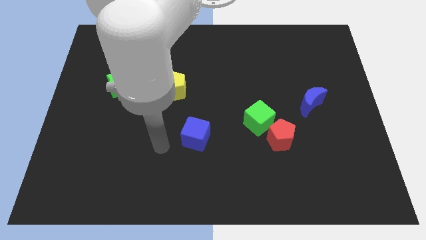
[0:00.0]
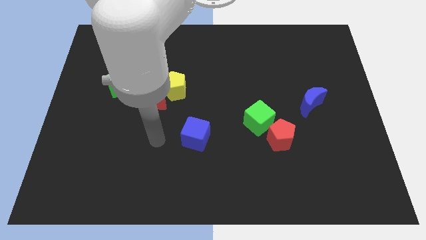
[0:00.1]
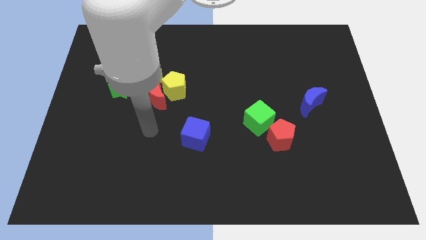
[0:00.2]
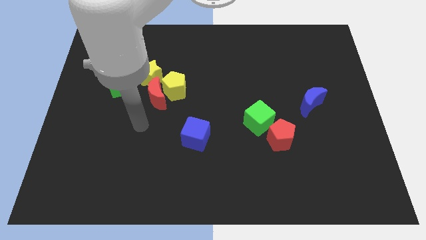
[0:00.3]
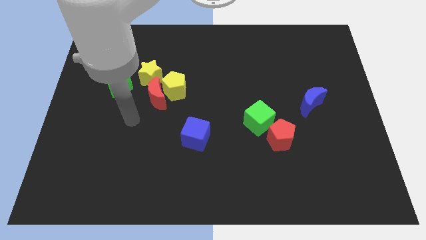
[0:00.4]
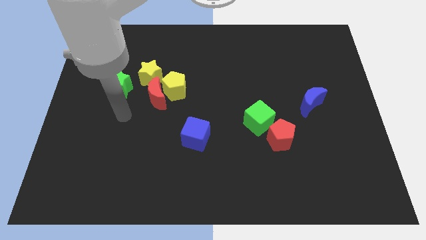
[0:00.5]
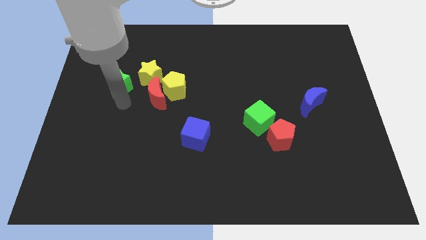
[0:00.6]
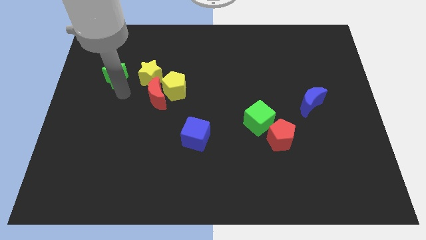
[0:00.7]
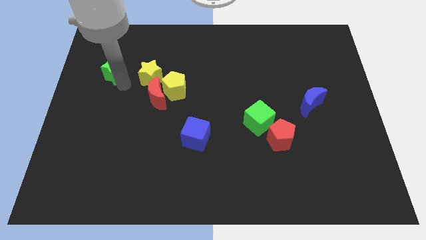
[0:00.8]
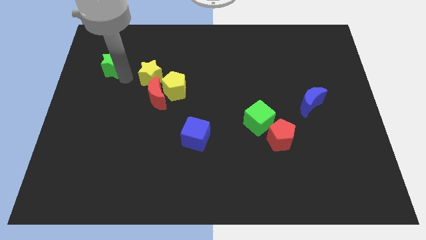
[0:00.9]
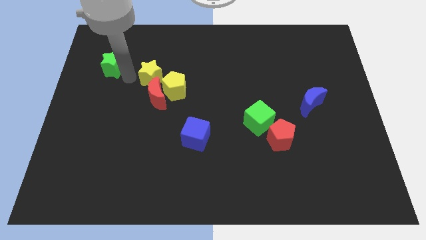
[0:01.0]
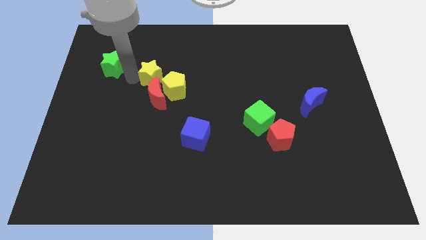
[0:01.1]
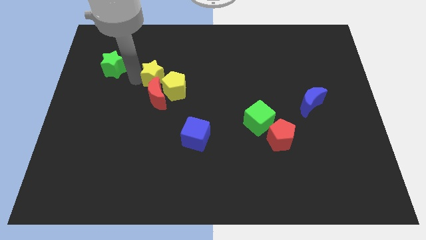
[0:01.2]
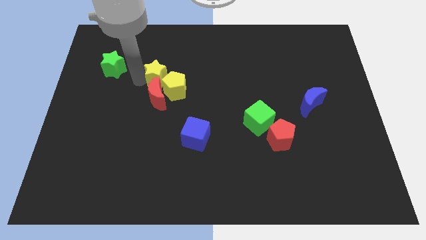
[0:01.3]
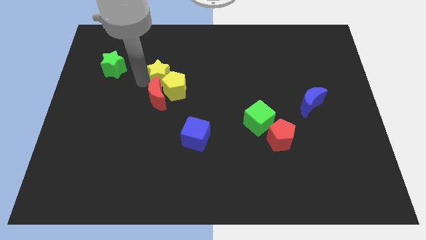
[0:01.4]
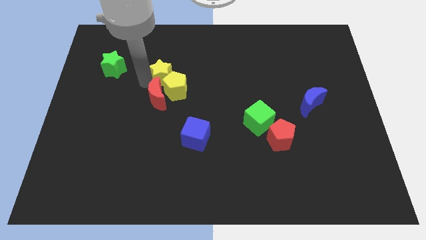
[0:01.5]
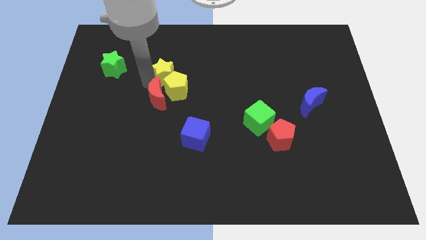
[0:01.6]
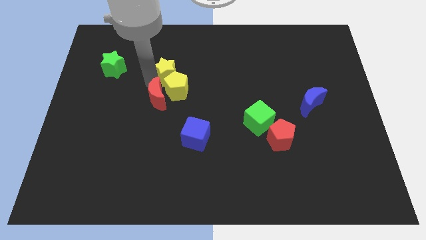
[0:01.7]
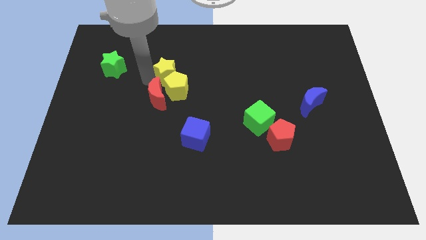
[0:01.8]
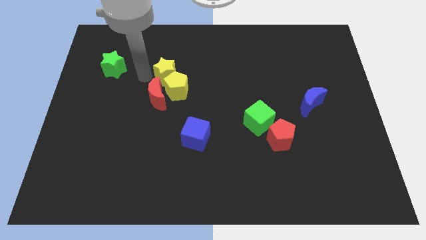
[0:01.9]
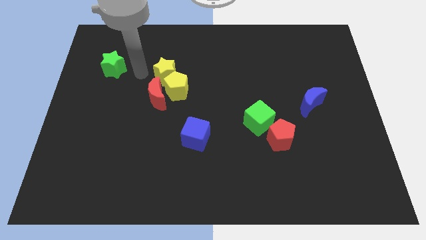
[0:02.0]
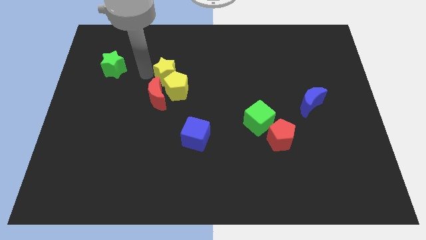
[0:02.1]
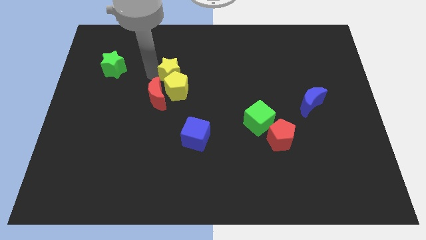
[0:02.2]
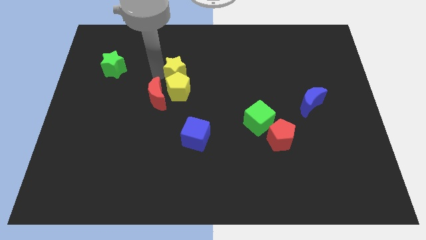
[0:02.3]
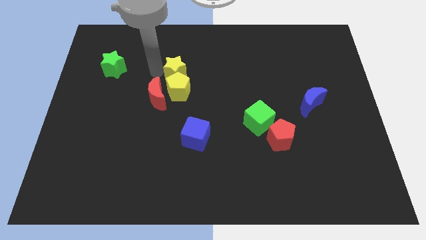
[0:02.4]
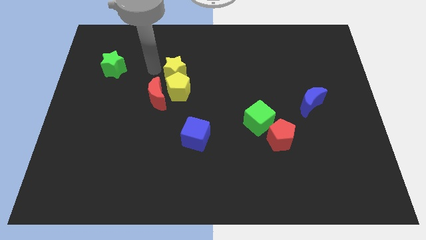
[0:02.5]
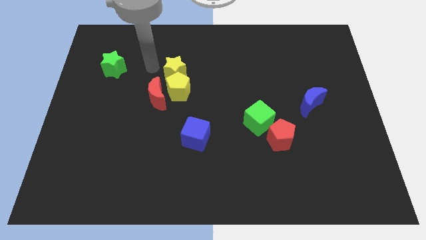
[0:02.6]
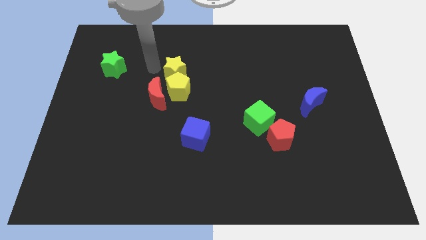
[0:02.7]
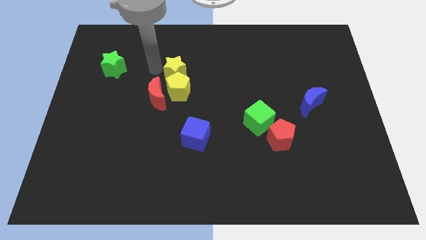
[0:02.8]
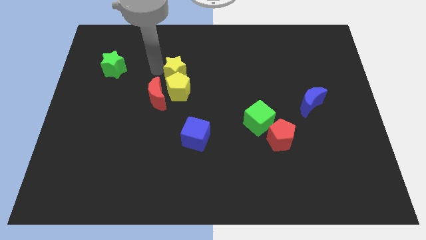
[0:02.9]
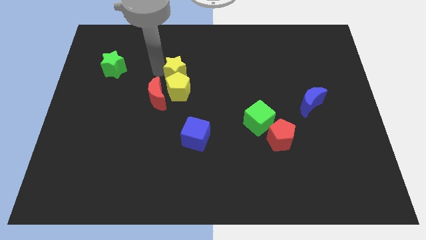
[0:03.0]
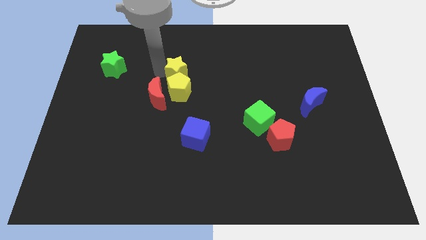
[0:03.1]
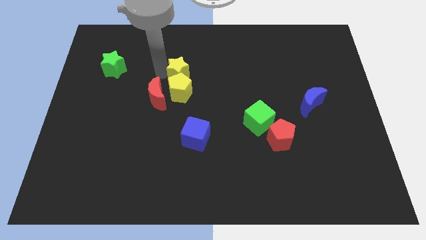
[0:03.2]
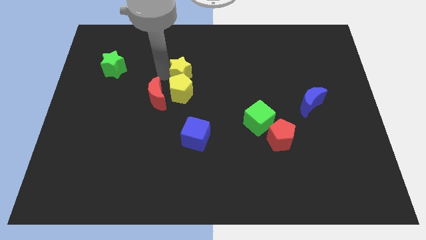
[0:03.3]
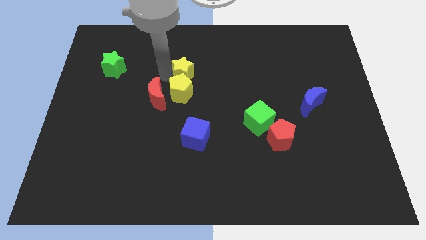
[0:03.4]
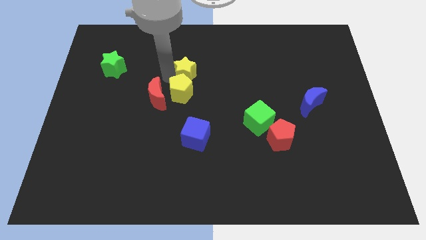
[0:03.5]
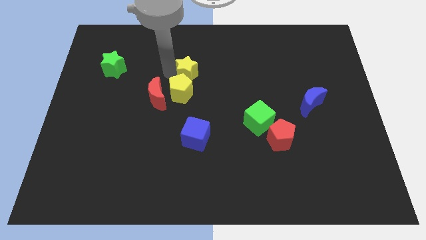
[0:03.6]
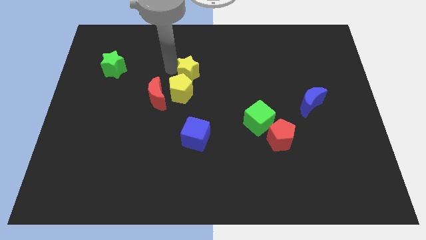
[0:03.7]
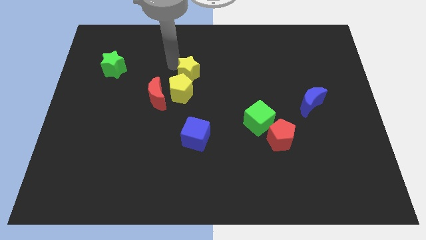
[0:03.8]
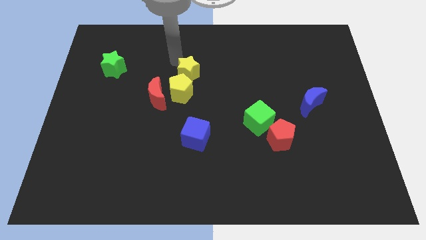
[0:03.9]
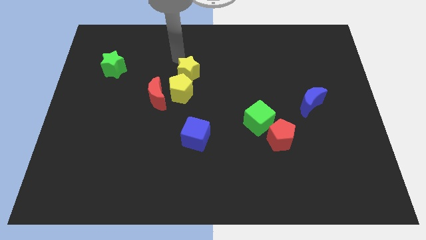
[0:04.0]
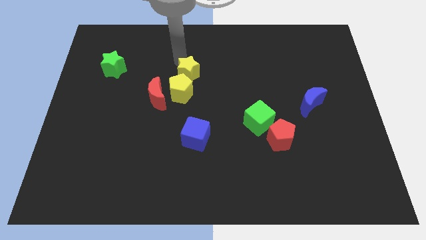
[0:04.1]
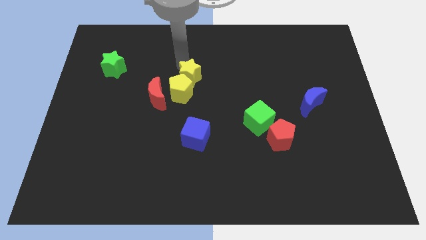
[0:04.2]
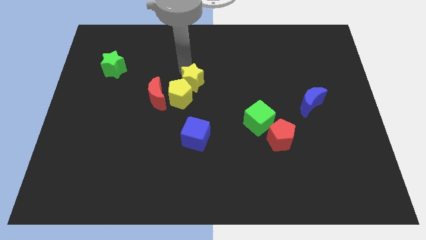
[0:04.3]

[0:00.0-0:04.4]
push the yellow star somewhat diagonally down and right

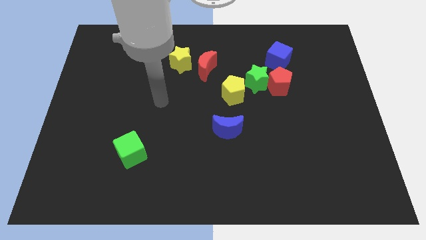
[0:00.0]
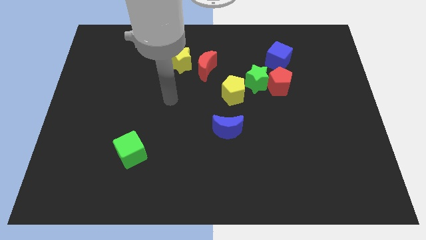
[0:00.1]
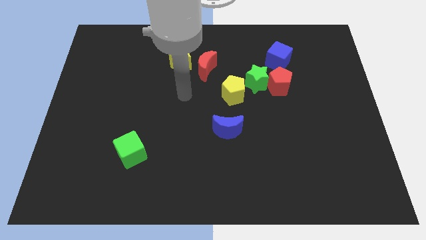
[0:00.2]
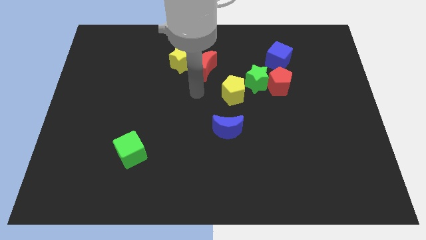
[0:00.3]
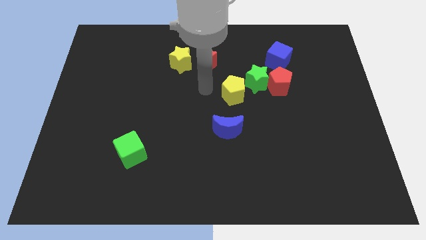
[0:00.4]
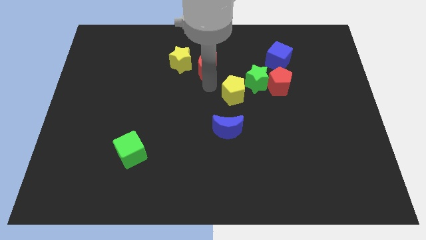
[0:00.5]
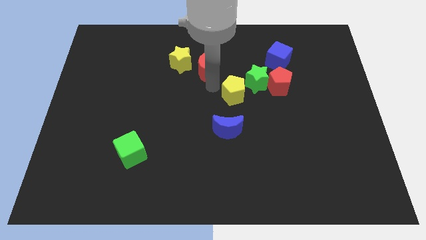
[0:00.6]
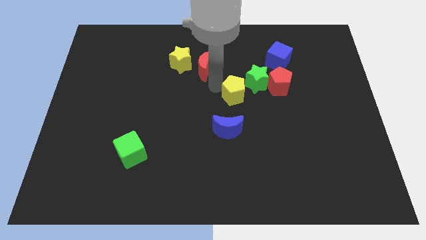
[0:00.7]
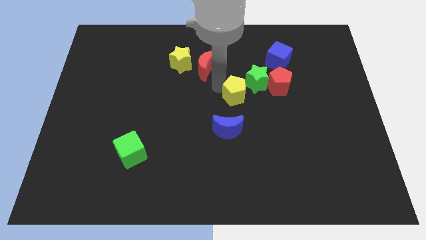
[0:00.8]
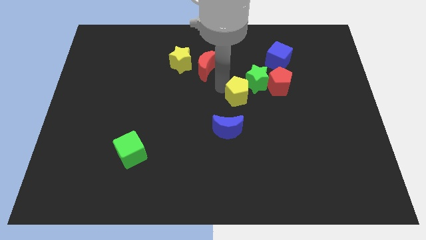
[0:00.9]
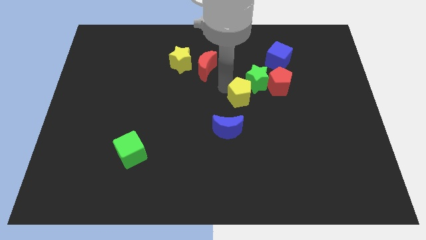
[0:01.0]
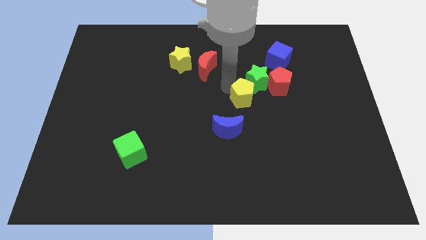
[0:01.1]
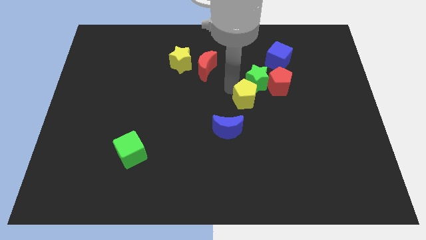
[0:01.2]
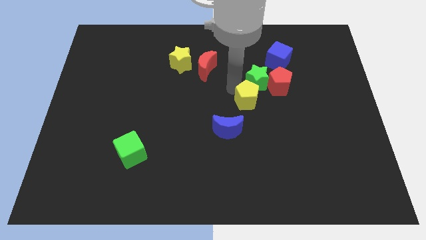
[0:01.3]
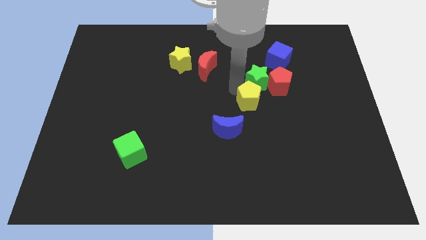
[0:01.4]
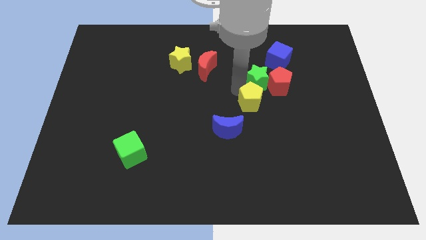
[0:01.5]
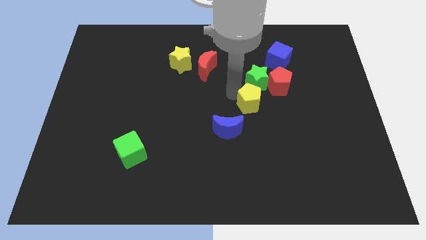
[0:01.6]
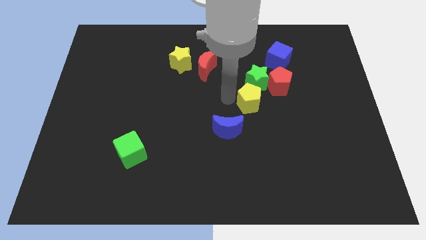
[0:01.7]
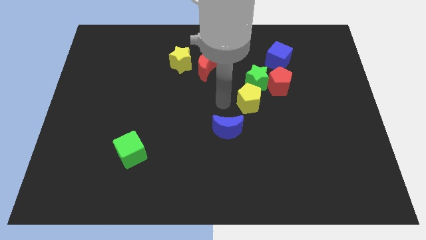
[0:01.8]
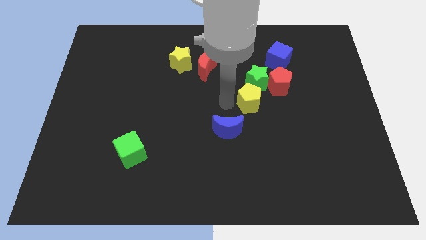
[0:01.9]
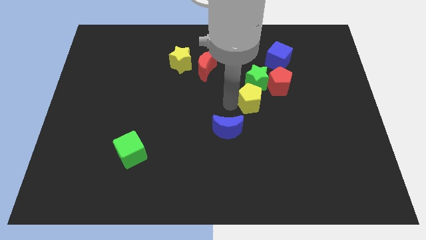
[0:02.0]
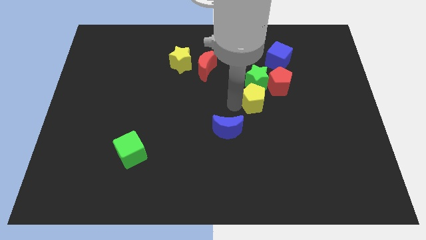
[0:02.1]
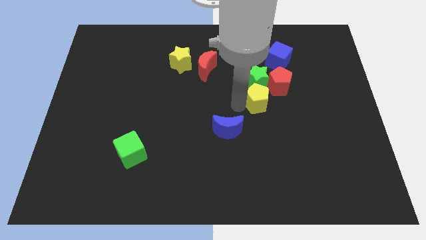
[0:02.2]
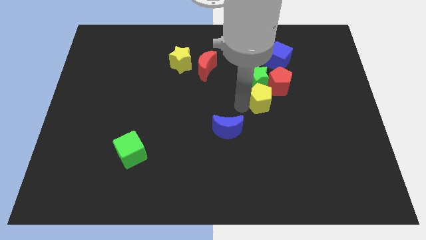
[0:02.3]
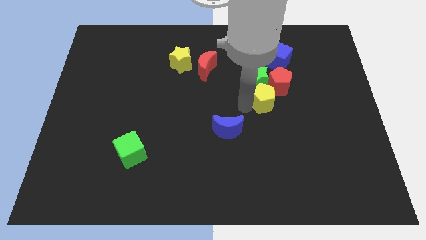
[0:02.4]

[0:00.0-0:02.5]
slightly slide the yellow pentagon to the right

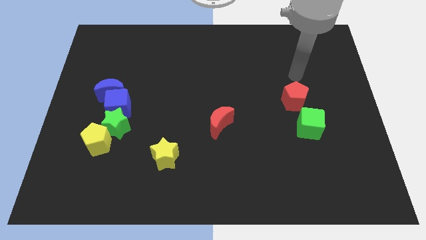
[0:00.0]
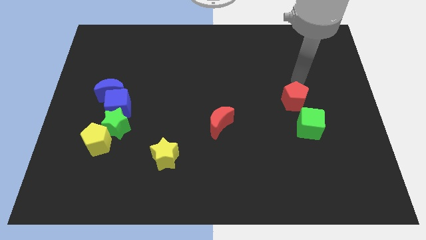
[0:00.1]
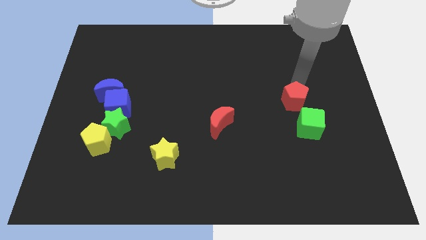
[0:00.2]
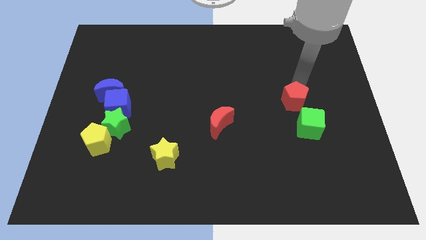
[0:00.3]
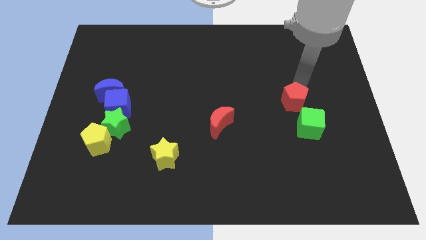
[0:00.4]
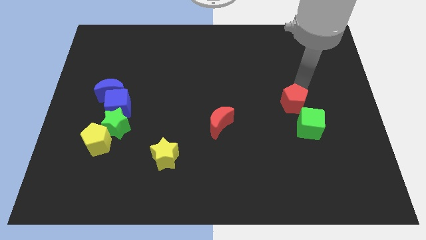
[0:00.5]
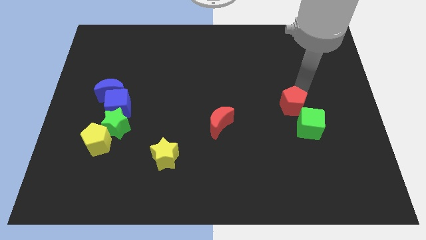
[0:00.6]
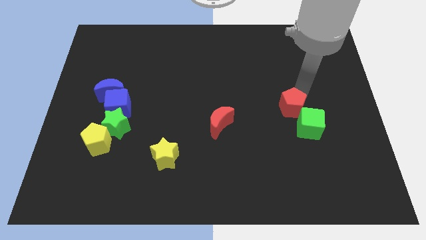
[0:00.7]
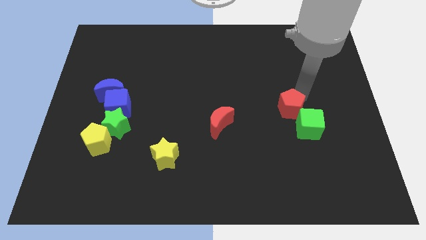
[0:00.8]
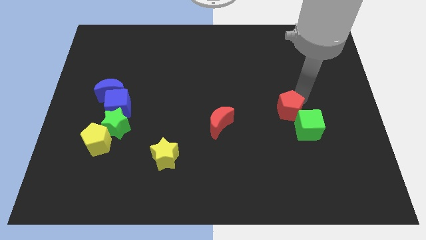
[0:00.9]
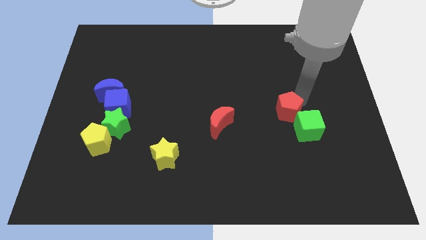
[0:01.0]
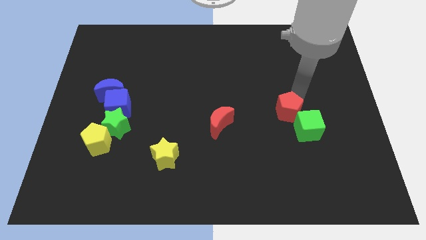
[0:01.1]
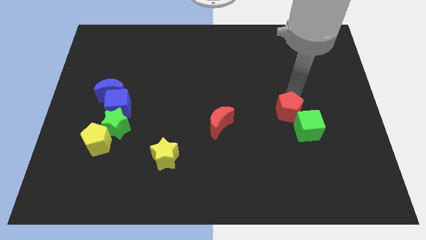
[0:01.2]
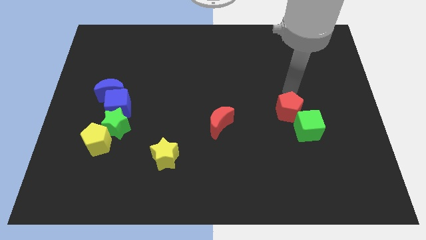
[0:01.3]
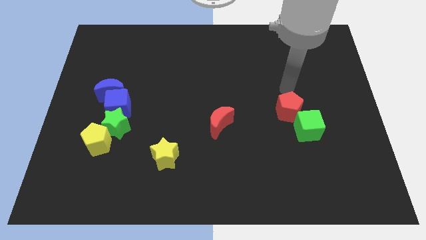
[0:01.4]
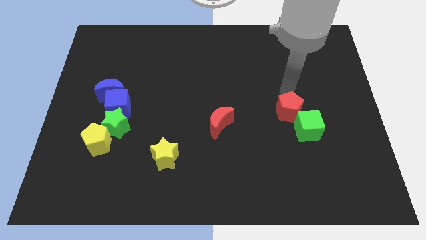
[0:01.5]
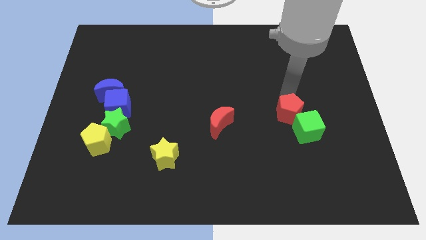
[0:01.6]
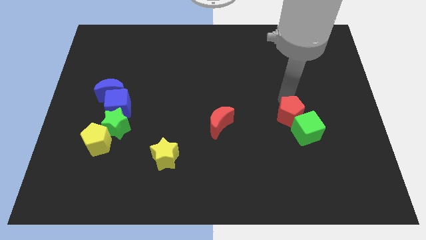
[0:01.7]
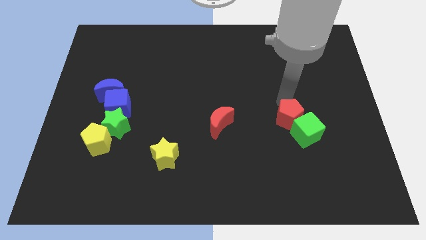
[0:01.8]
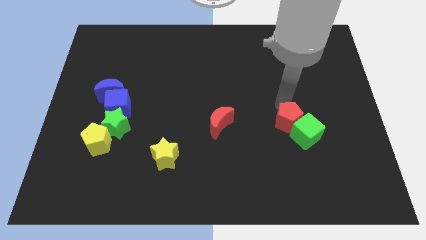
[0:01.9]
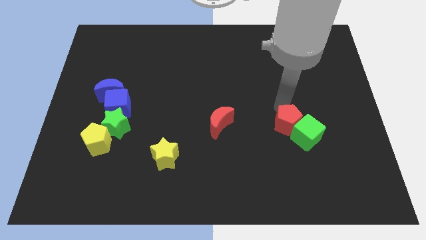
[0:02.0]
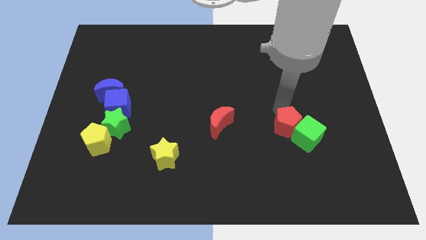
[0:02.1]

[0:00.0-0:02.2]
slide the red pentagon downwards a little bit
